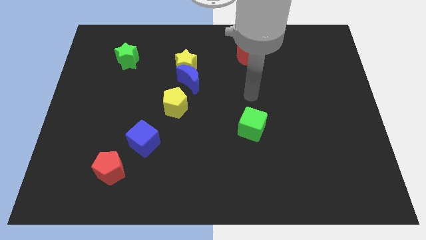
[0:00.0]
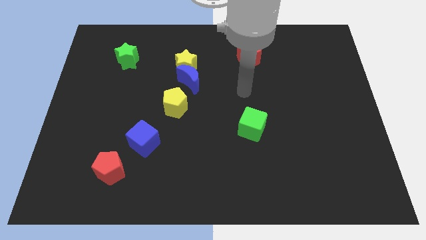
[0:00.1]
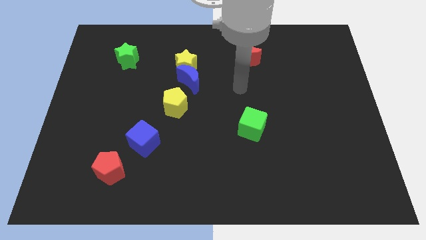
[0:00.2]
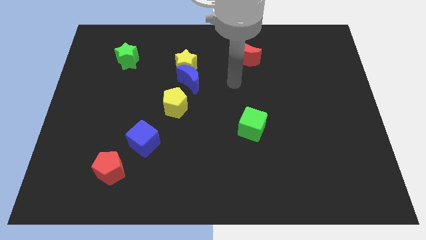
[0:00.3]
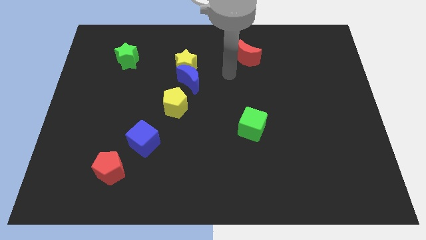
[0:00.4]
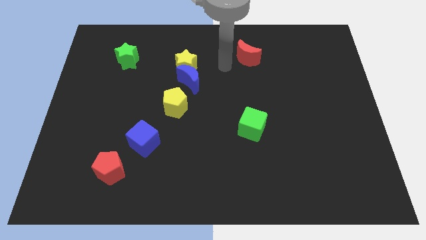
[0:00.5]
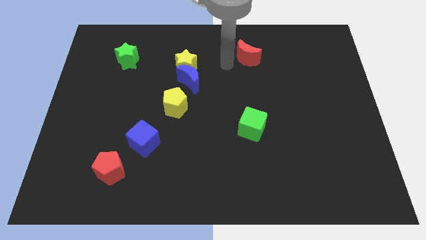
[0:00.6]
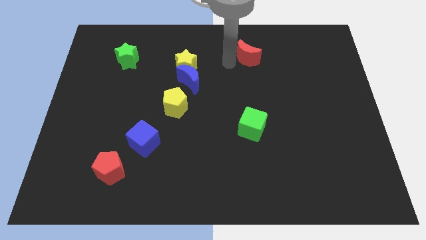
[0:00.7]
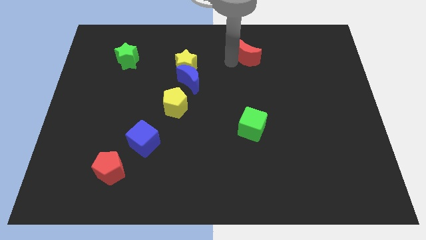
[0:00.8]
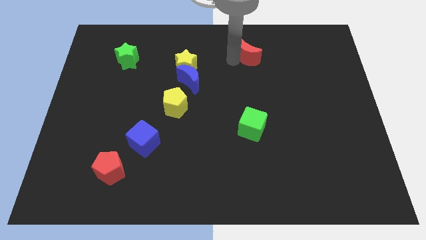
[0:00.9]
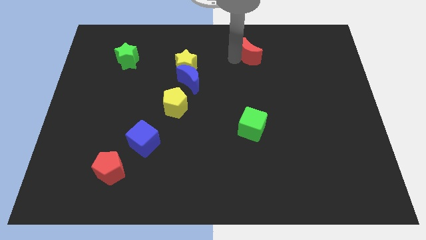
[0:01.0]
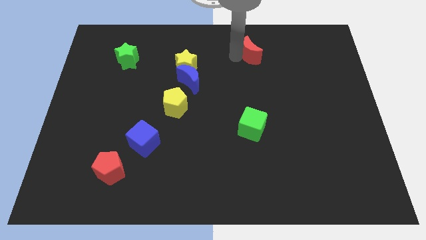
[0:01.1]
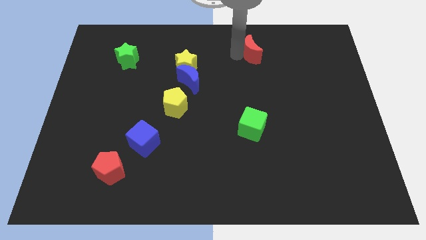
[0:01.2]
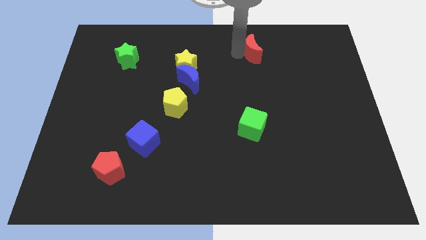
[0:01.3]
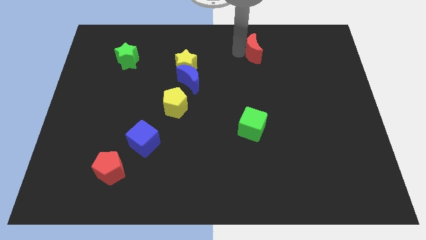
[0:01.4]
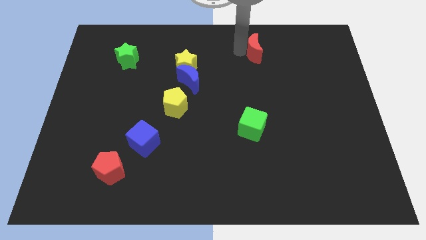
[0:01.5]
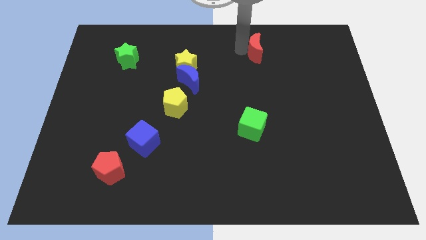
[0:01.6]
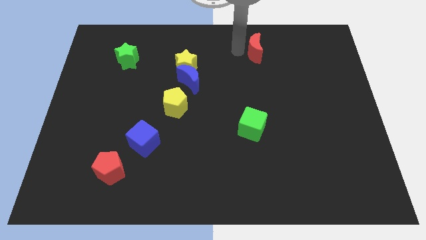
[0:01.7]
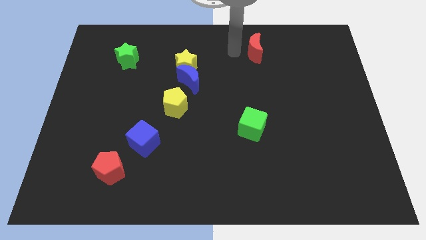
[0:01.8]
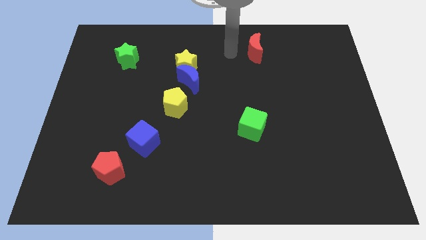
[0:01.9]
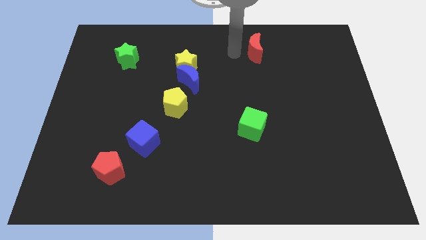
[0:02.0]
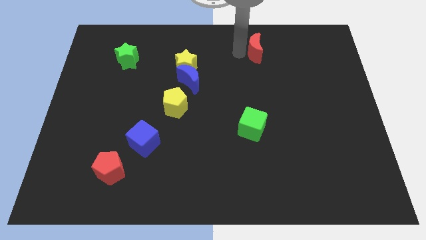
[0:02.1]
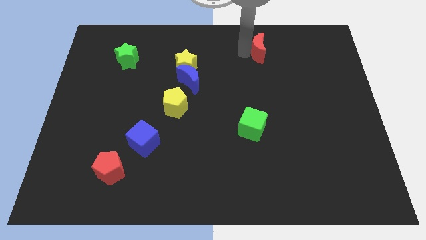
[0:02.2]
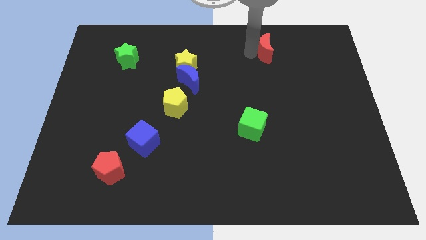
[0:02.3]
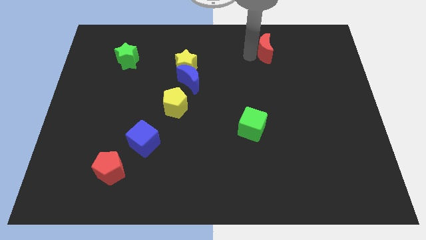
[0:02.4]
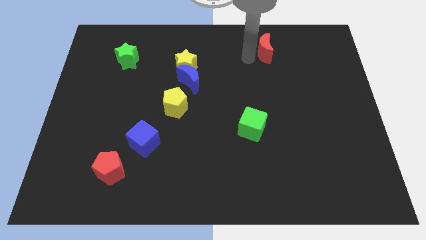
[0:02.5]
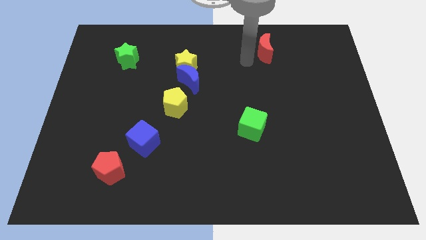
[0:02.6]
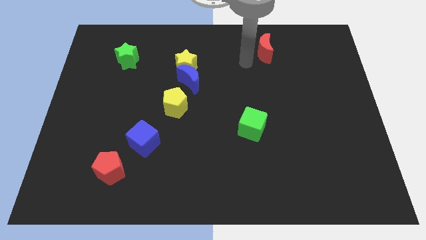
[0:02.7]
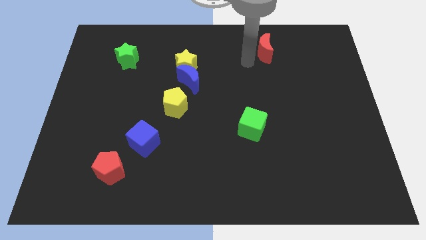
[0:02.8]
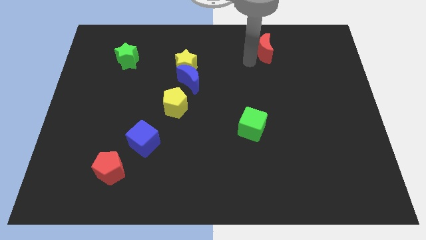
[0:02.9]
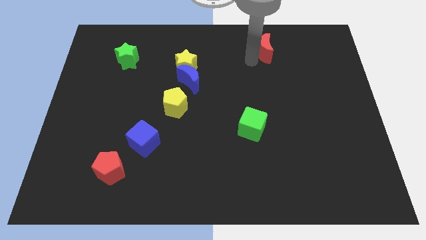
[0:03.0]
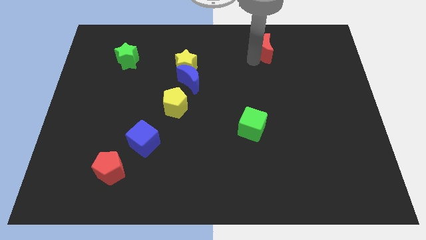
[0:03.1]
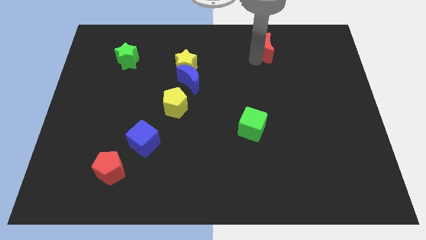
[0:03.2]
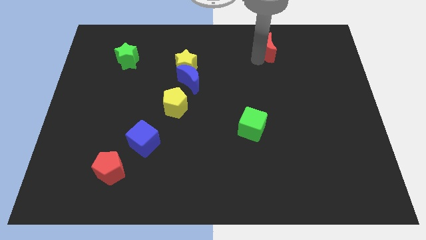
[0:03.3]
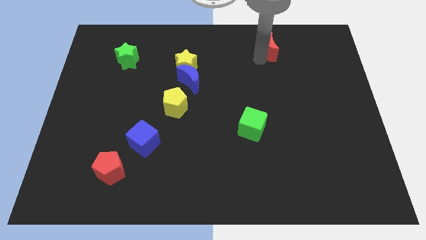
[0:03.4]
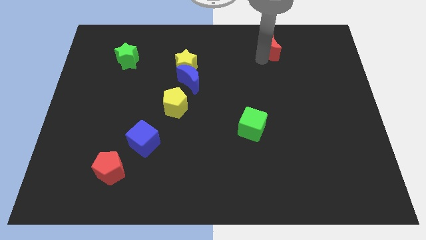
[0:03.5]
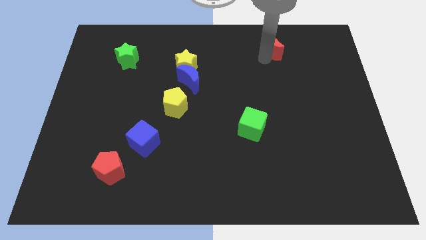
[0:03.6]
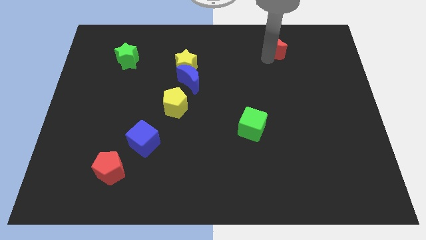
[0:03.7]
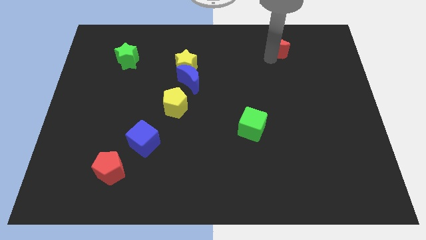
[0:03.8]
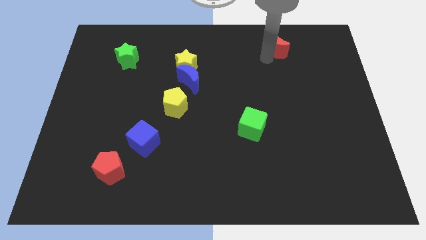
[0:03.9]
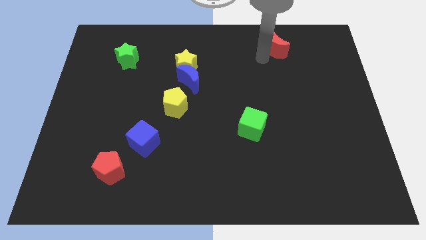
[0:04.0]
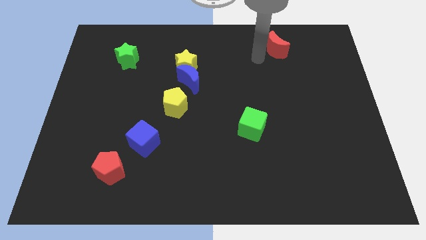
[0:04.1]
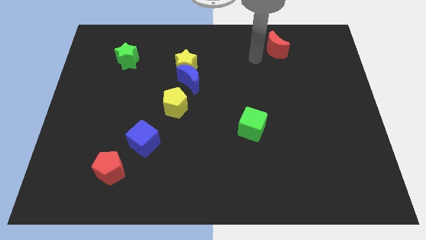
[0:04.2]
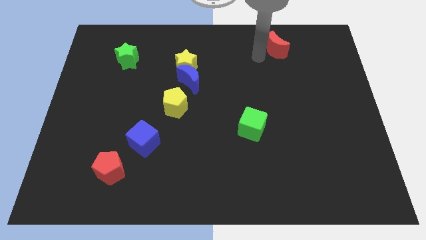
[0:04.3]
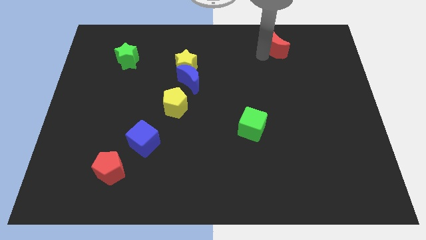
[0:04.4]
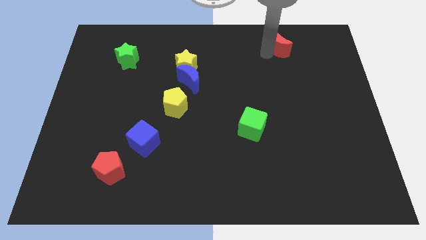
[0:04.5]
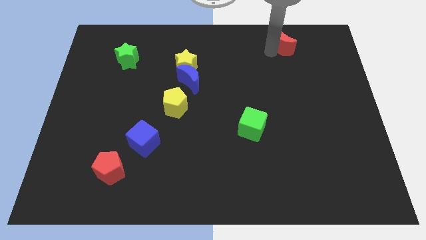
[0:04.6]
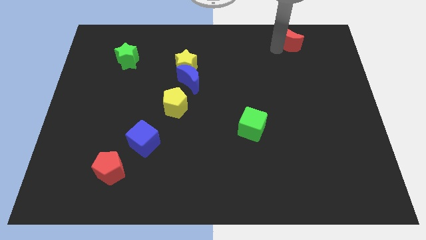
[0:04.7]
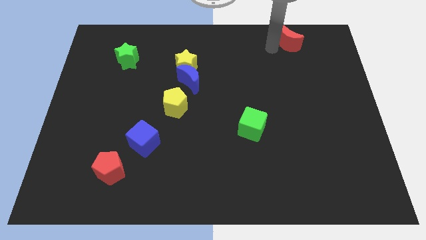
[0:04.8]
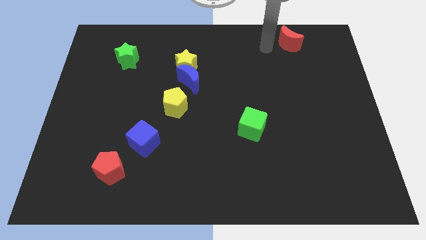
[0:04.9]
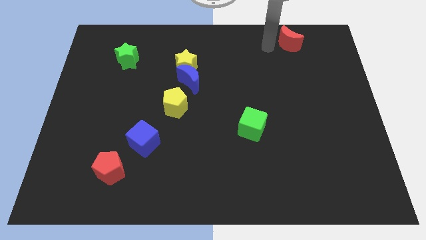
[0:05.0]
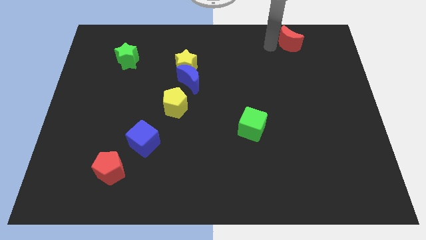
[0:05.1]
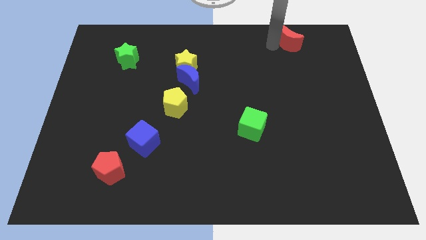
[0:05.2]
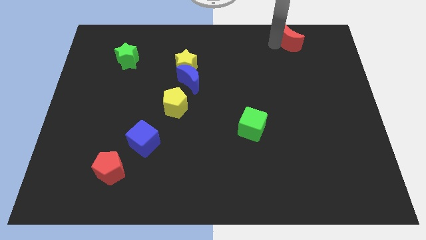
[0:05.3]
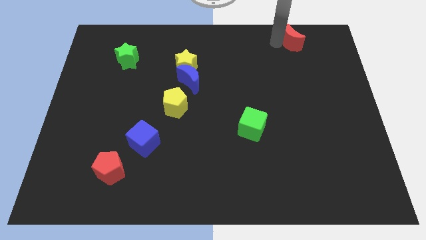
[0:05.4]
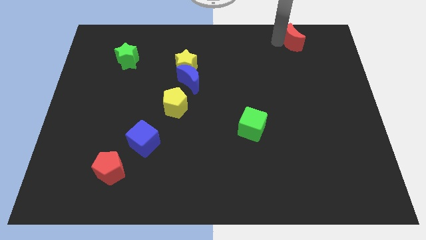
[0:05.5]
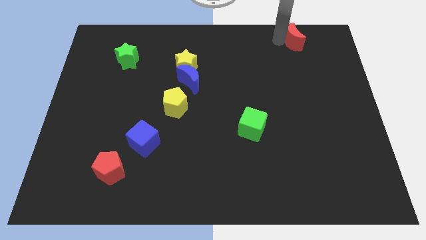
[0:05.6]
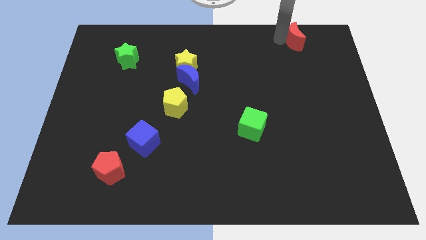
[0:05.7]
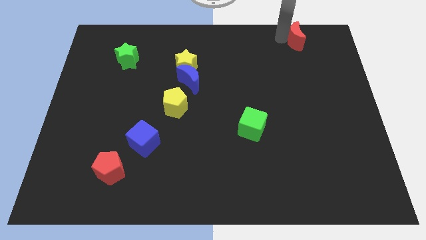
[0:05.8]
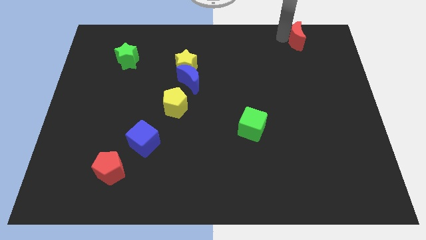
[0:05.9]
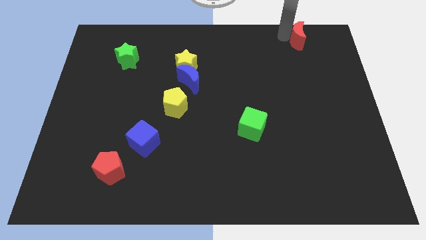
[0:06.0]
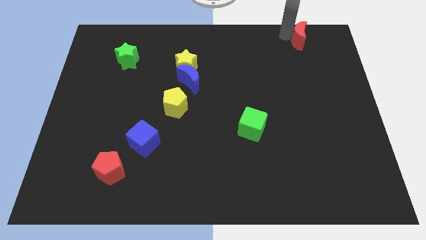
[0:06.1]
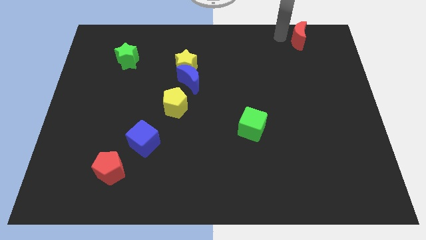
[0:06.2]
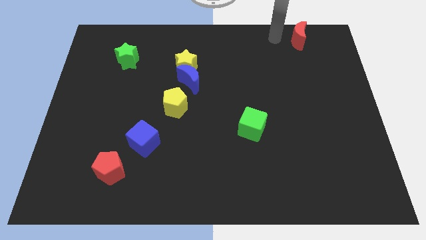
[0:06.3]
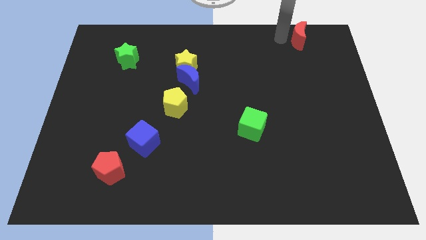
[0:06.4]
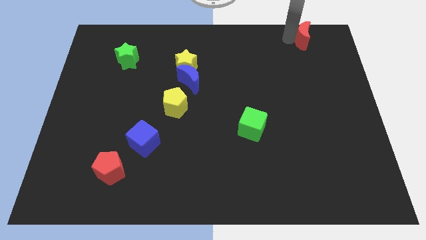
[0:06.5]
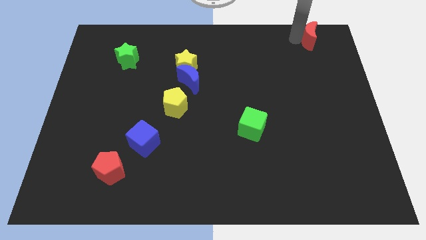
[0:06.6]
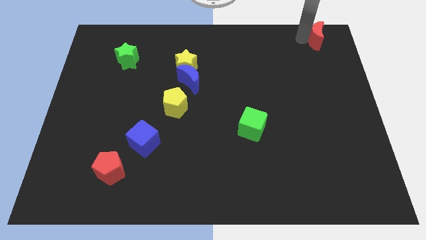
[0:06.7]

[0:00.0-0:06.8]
slide the red moon to the upper right corner
